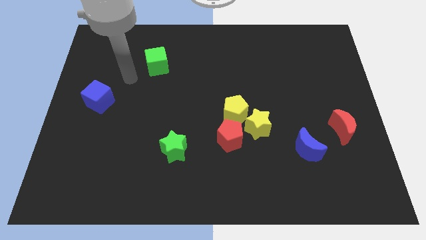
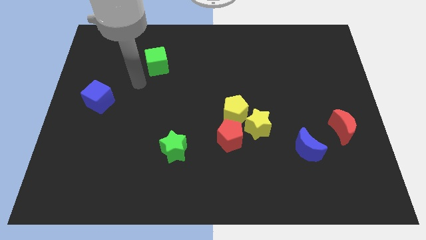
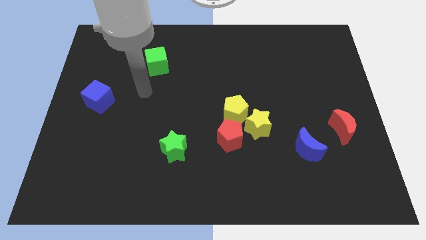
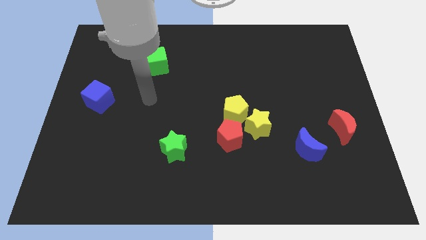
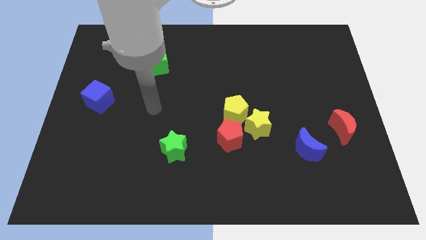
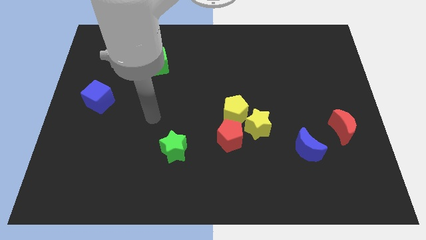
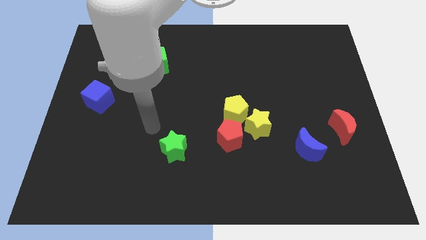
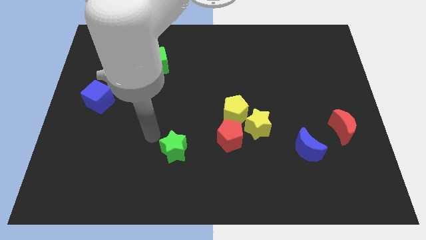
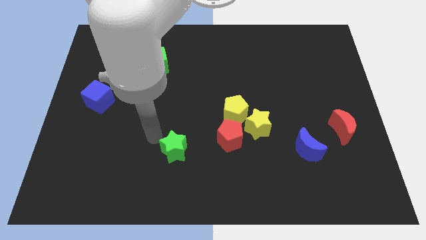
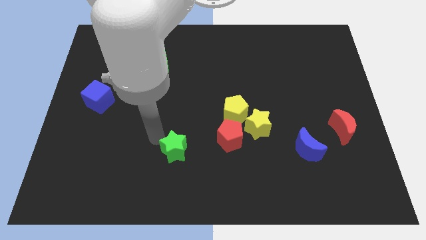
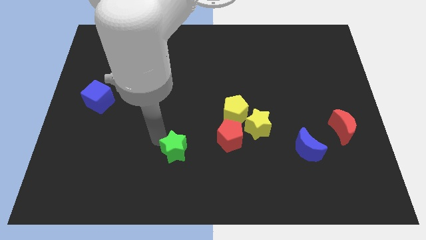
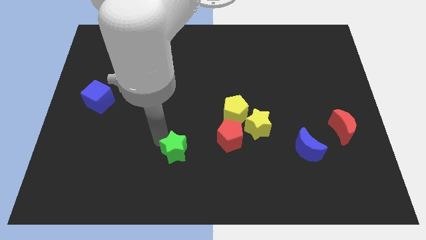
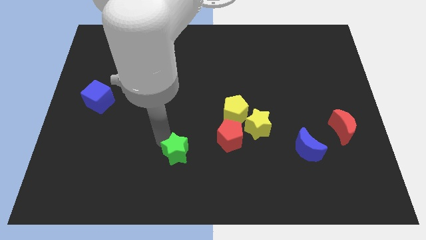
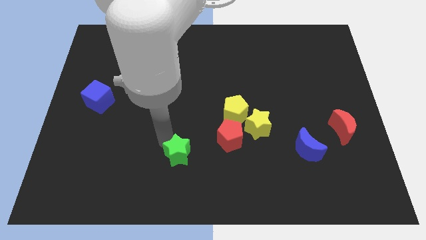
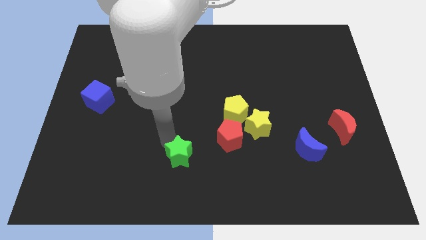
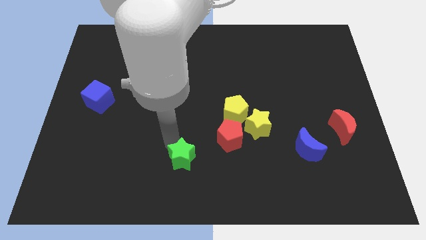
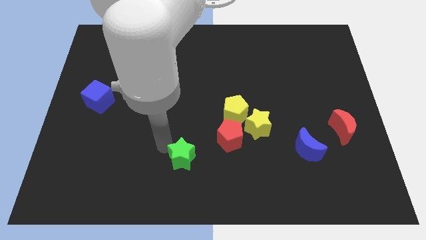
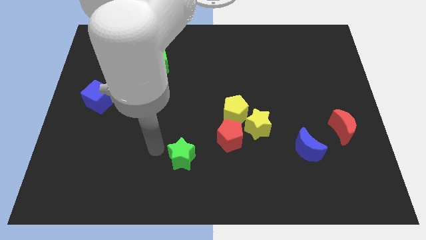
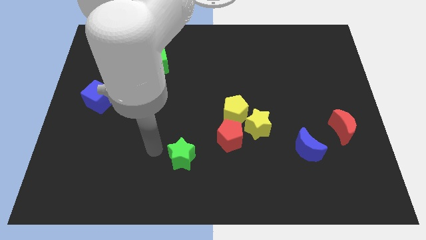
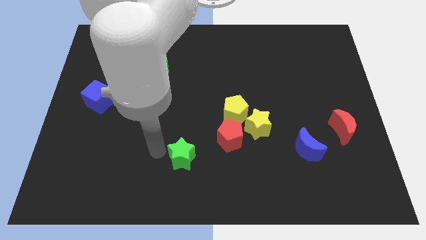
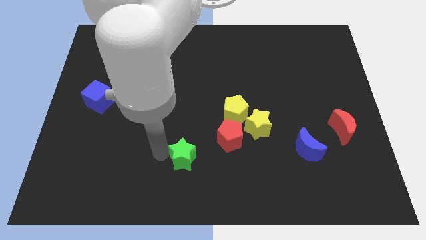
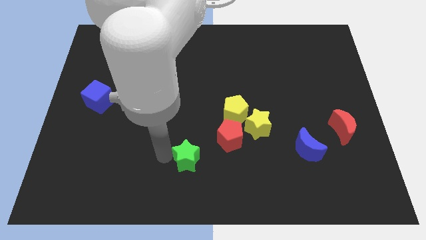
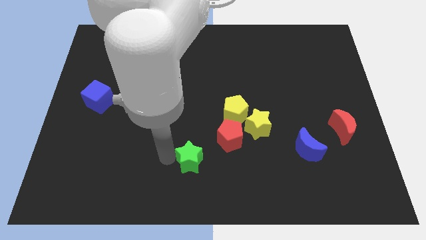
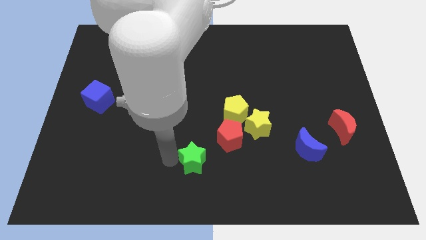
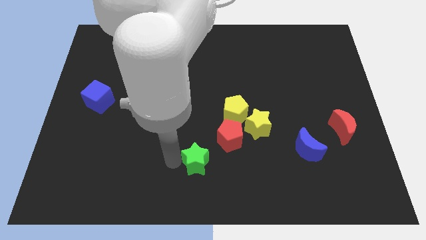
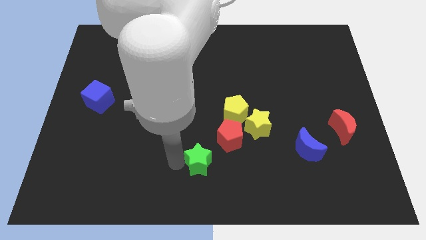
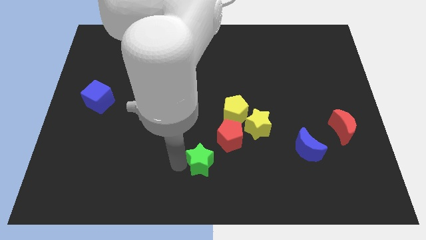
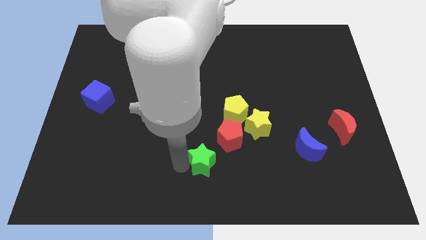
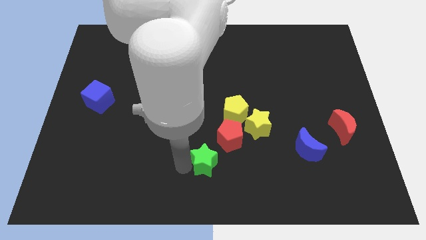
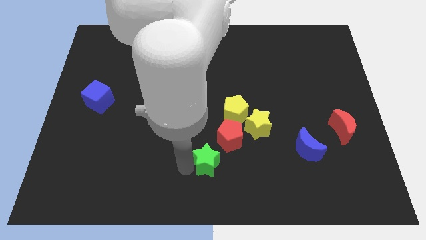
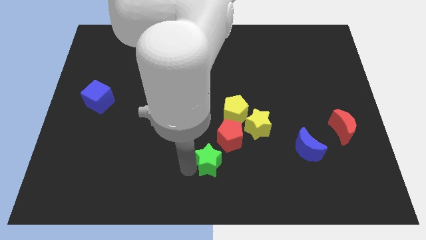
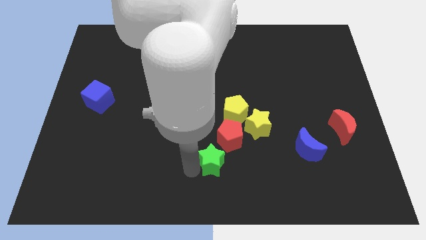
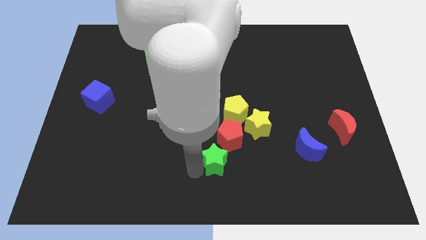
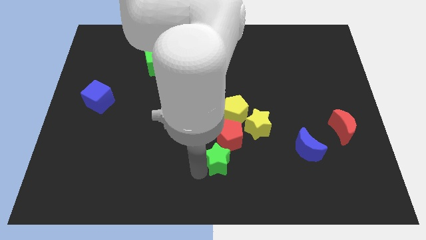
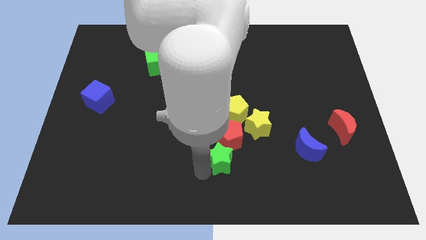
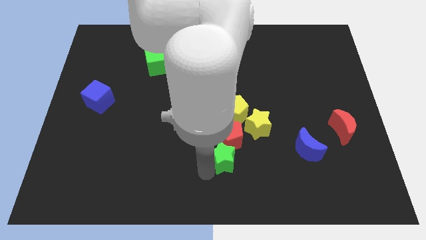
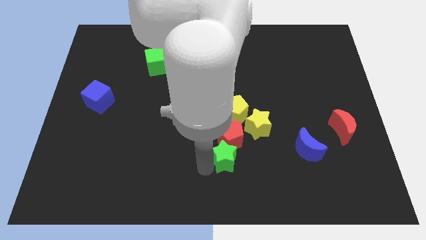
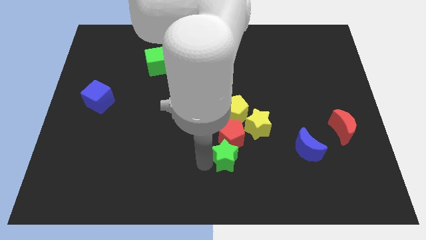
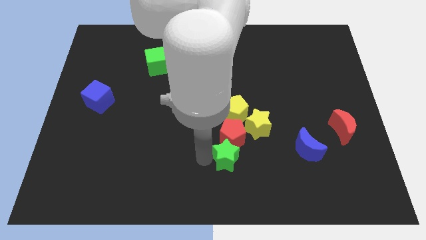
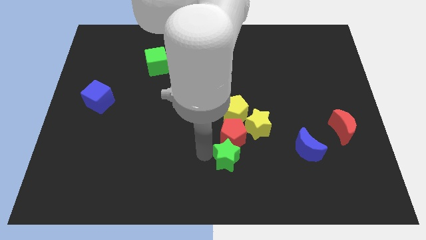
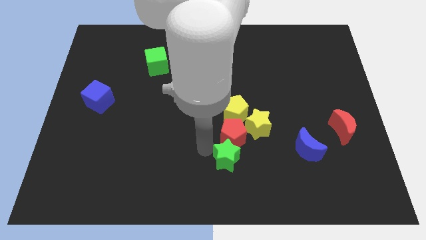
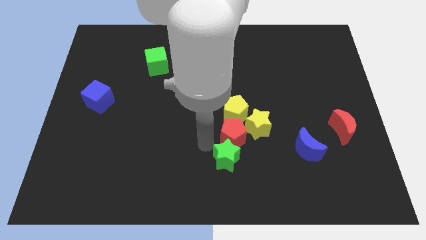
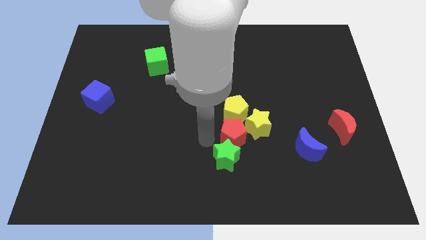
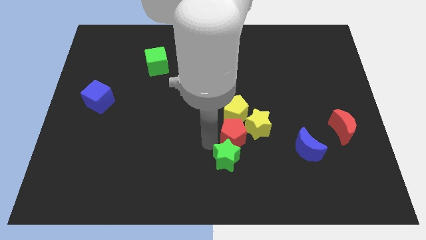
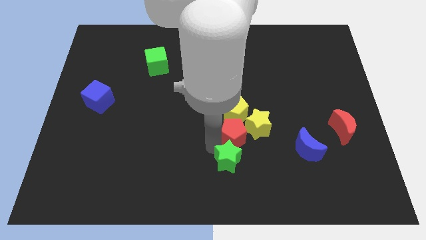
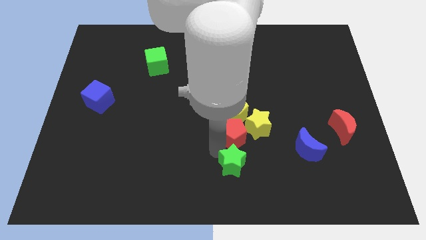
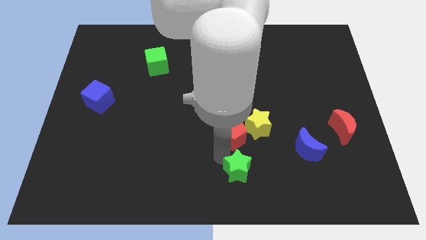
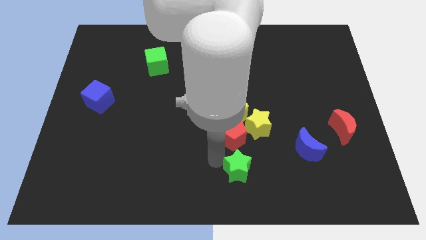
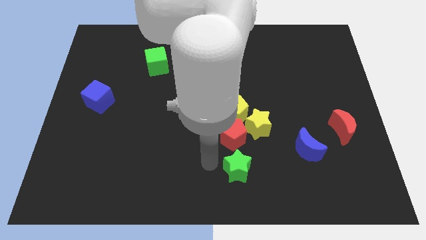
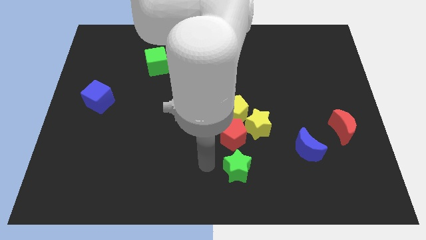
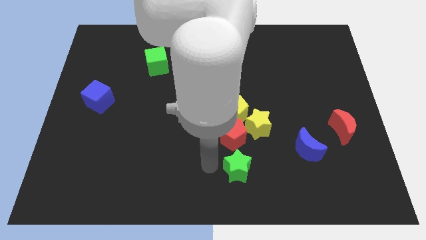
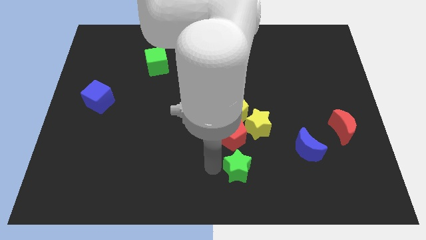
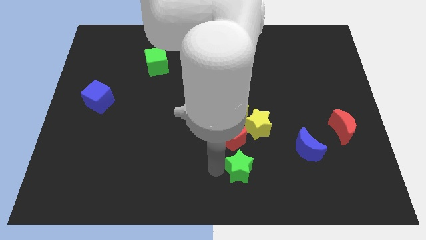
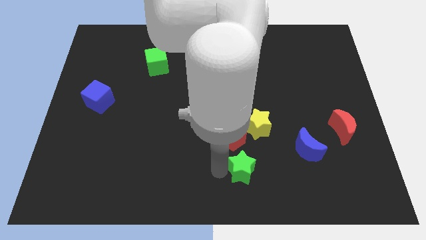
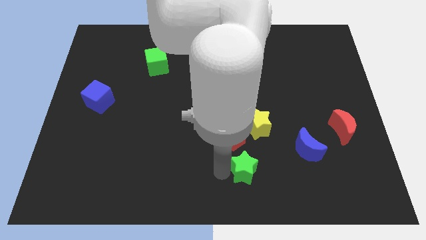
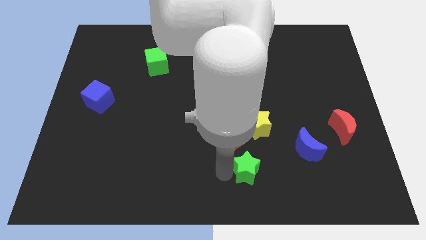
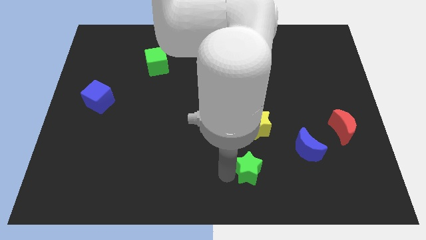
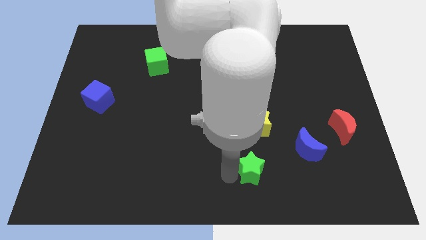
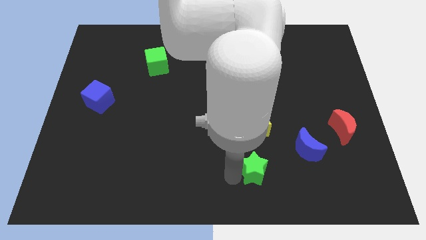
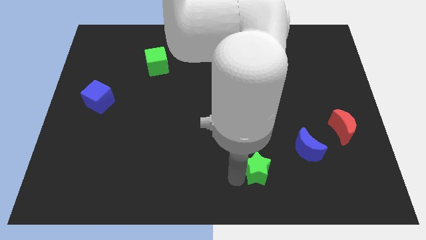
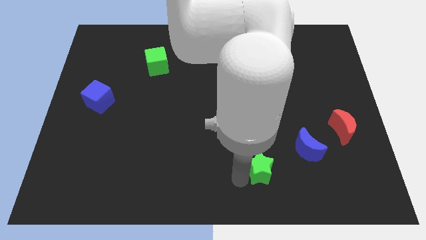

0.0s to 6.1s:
slide the green star diagonally down and to the left of the blue moon

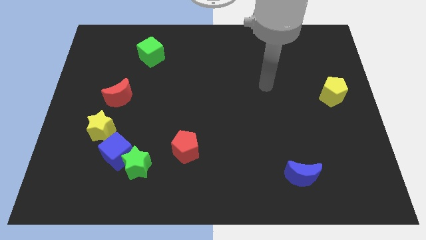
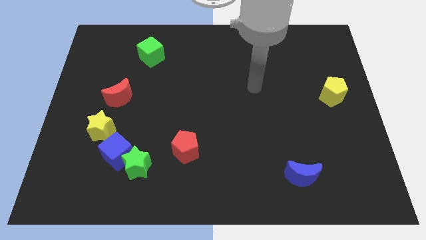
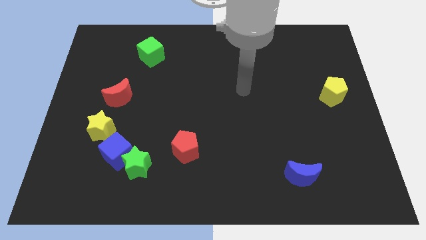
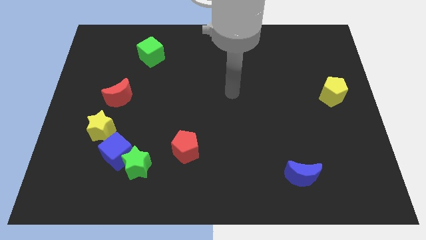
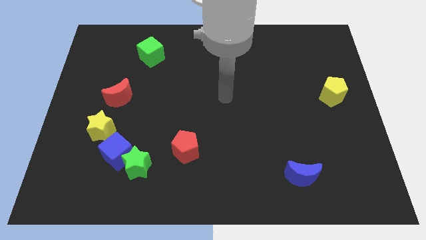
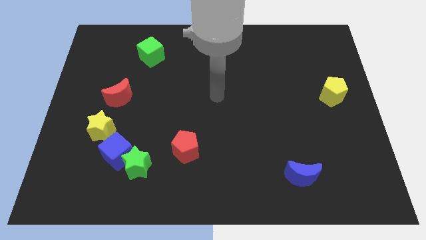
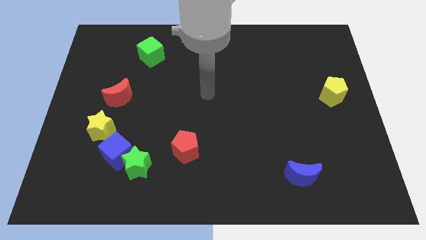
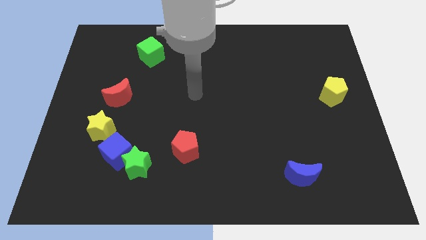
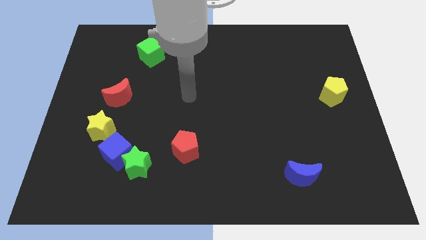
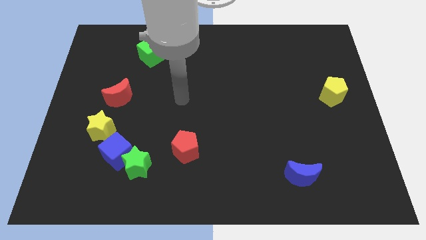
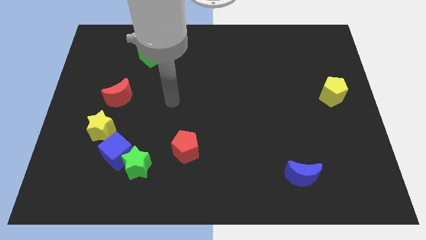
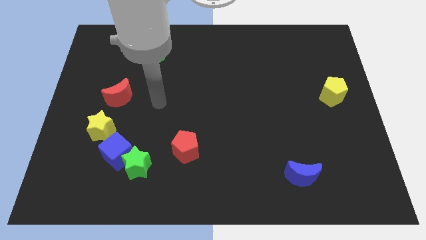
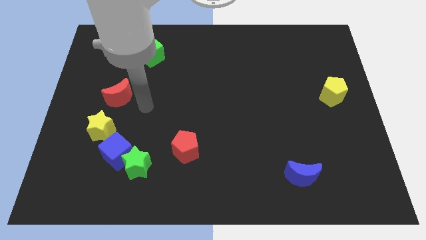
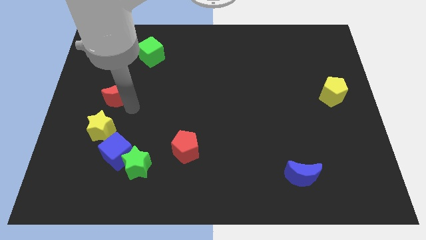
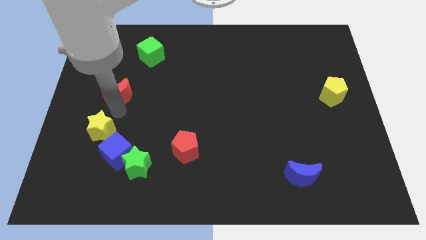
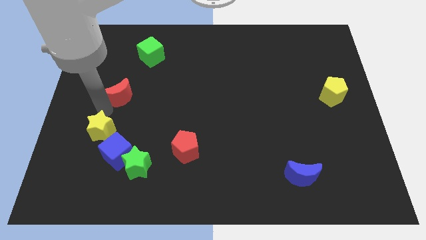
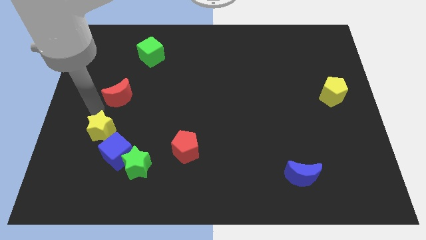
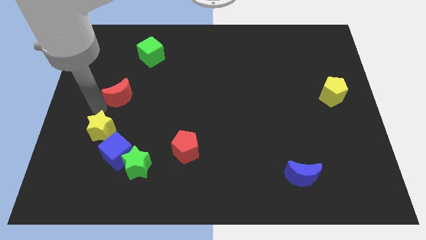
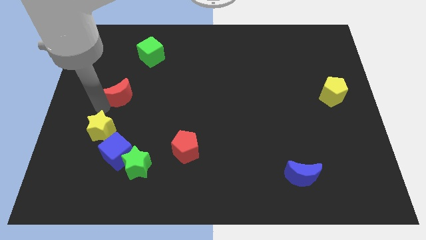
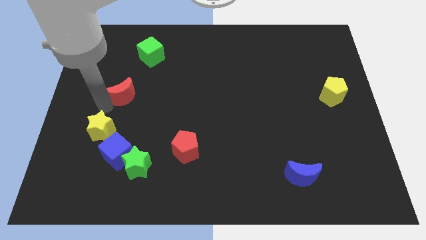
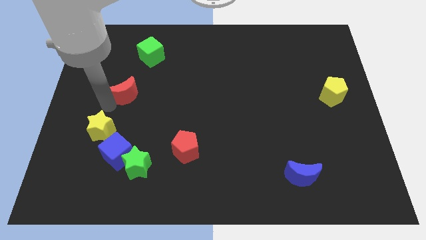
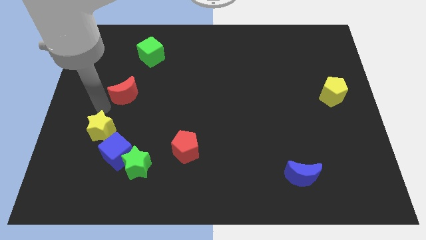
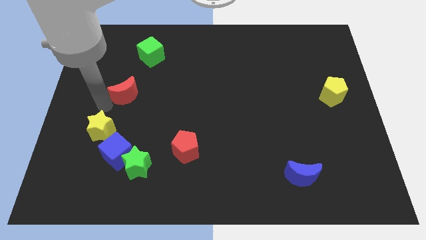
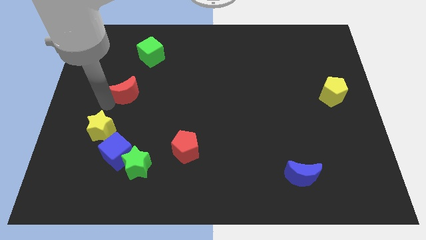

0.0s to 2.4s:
slide the red moon to the bottom side of the green cube
